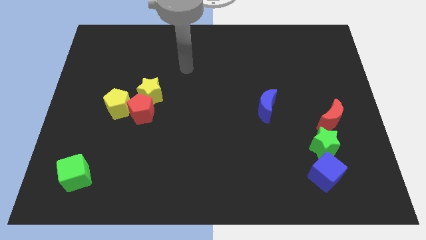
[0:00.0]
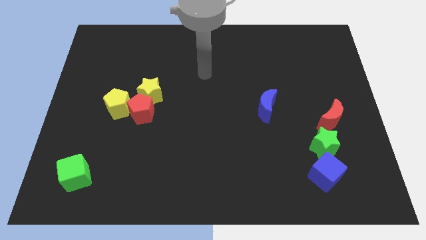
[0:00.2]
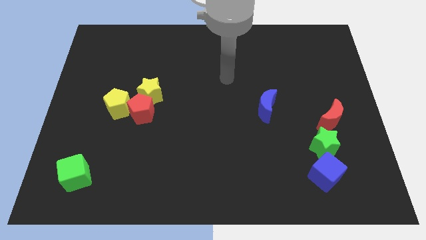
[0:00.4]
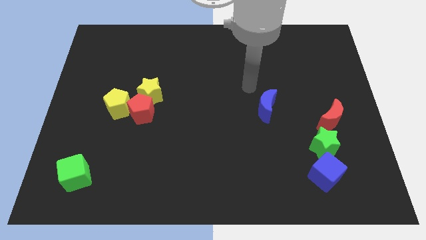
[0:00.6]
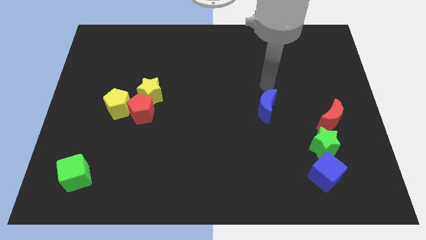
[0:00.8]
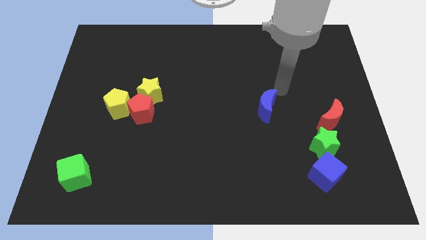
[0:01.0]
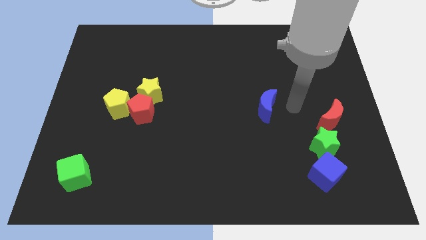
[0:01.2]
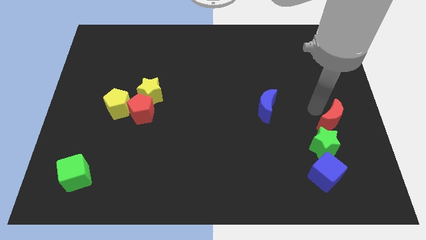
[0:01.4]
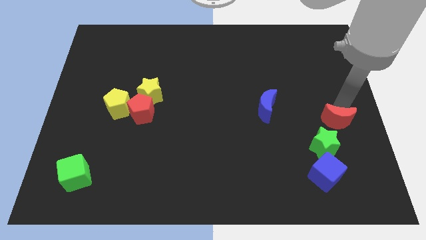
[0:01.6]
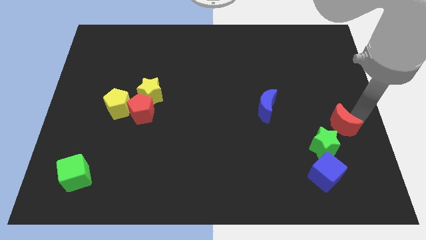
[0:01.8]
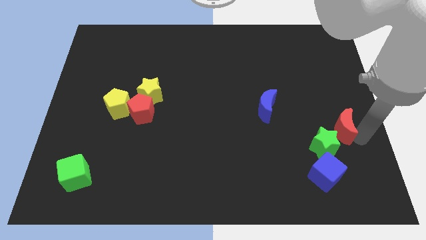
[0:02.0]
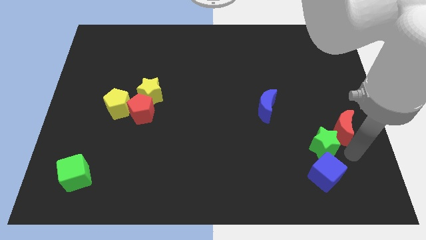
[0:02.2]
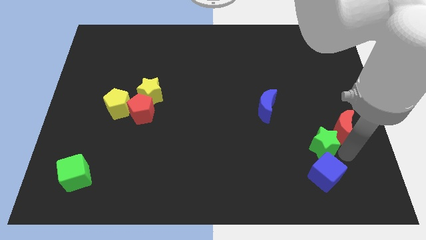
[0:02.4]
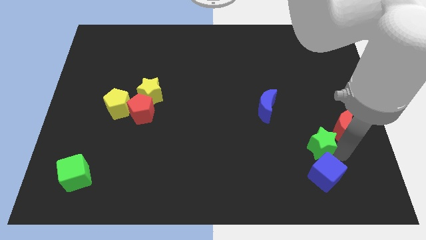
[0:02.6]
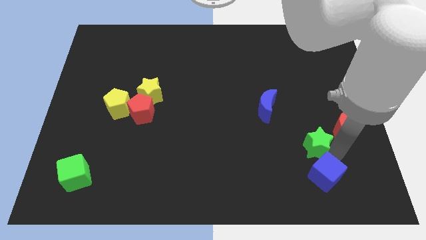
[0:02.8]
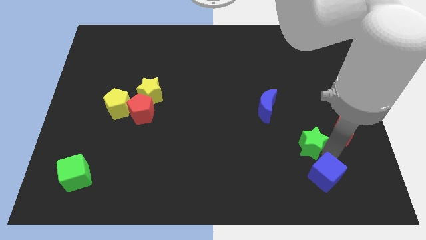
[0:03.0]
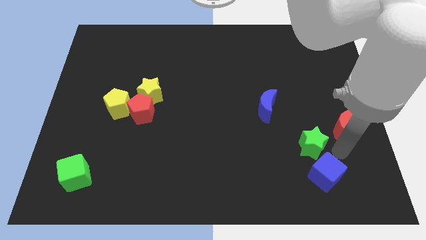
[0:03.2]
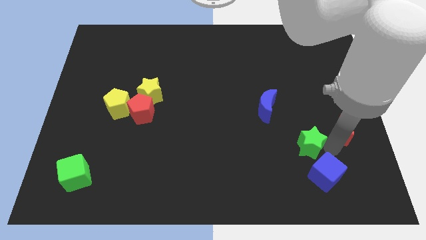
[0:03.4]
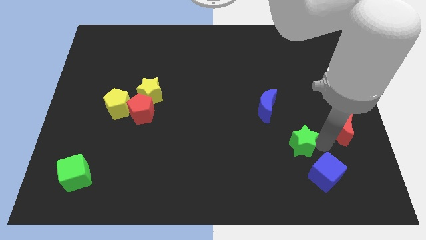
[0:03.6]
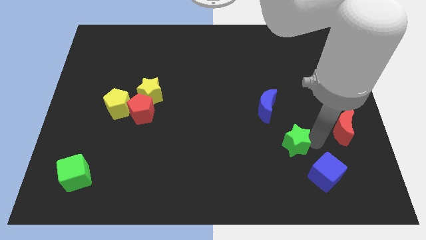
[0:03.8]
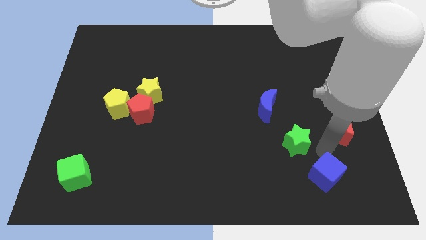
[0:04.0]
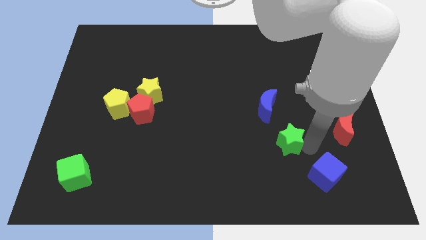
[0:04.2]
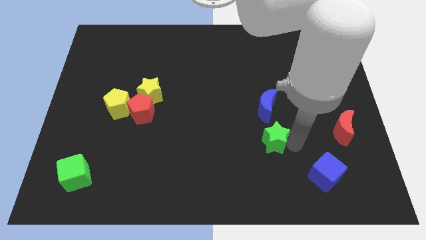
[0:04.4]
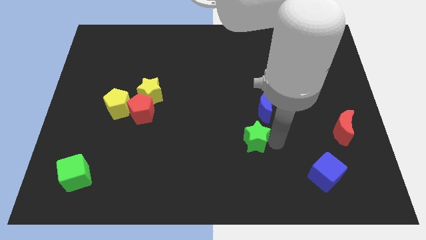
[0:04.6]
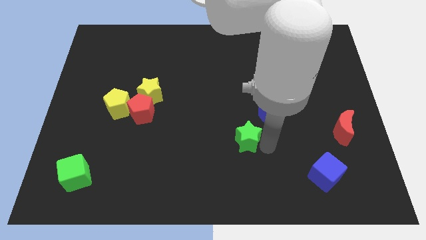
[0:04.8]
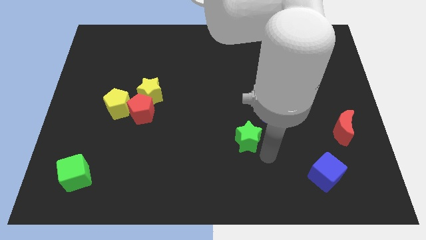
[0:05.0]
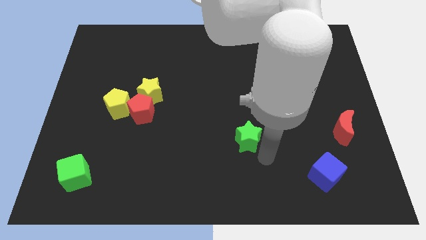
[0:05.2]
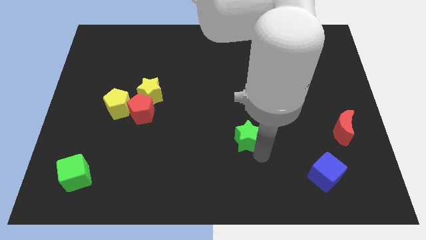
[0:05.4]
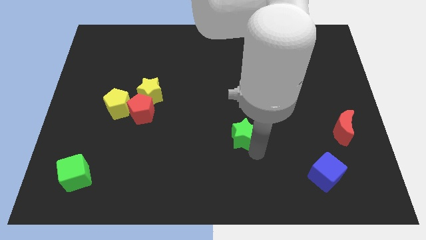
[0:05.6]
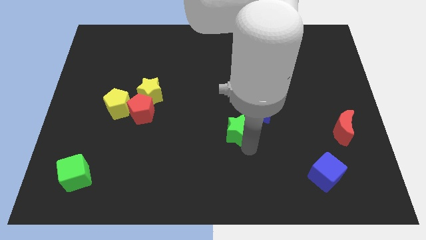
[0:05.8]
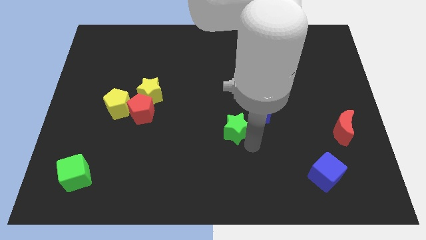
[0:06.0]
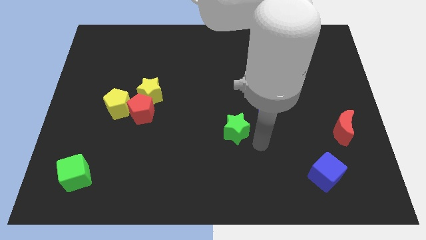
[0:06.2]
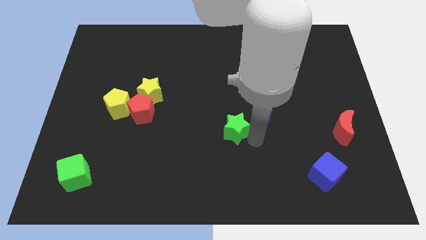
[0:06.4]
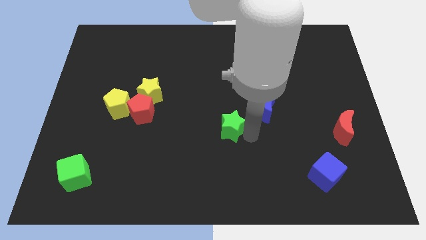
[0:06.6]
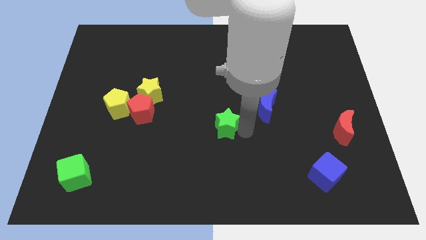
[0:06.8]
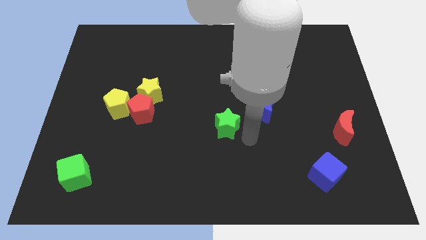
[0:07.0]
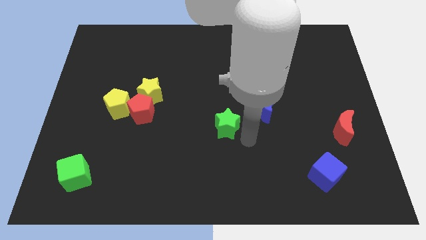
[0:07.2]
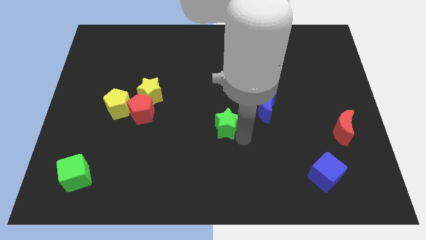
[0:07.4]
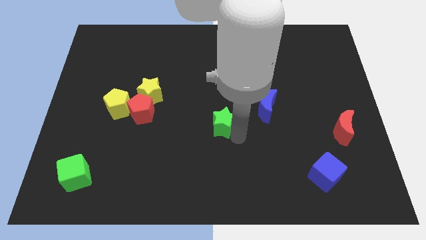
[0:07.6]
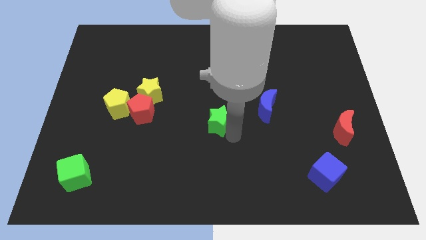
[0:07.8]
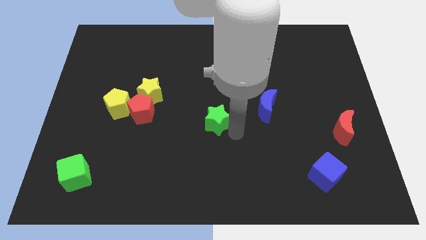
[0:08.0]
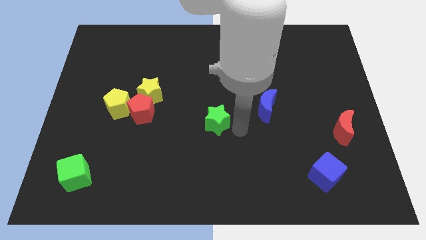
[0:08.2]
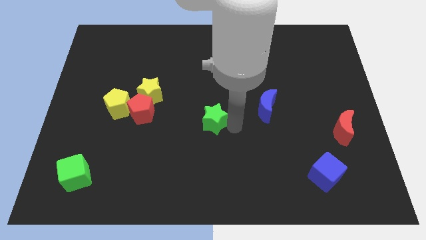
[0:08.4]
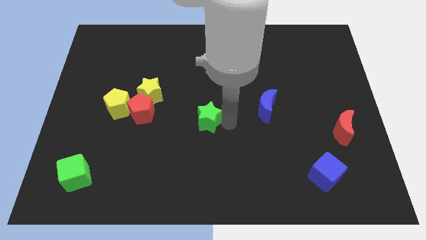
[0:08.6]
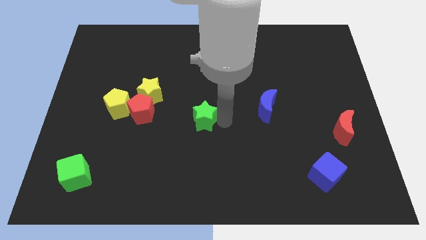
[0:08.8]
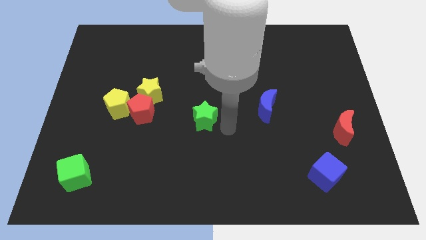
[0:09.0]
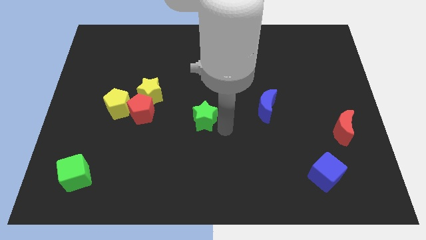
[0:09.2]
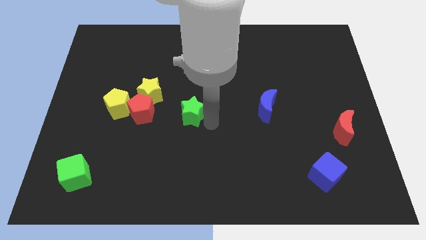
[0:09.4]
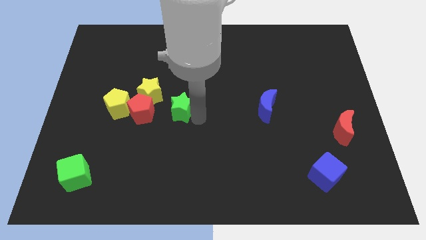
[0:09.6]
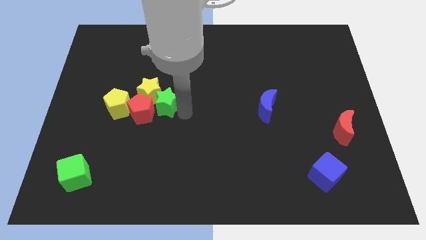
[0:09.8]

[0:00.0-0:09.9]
push the green star towards the yellow star

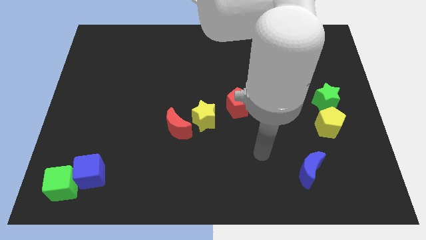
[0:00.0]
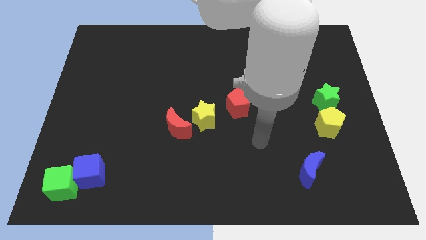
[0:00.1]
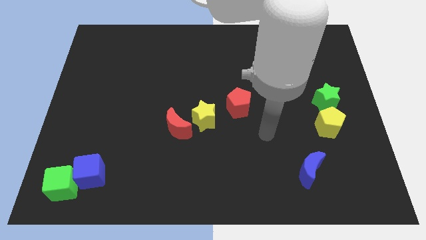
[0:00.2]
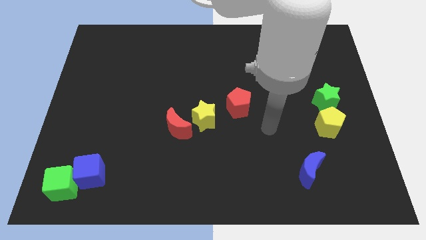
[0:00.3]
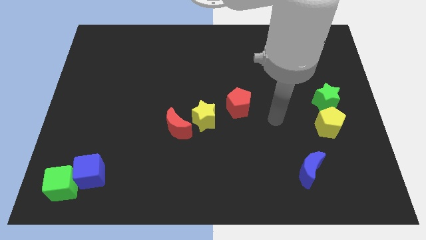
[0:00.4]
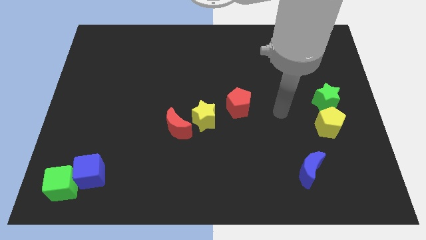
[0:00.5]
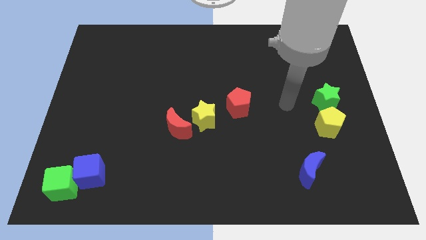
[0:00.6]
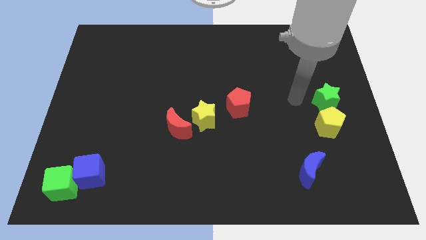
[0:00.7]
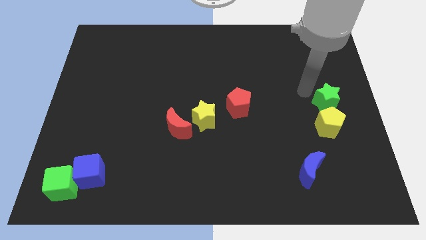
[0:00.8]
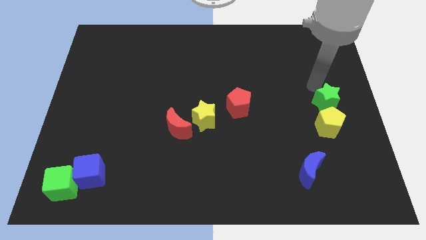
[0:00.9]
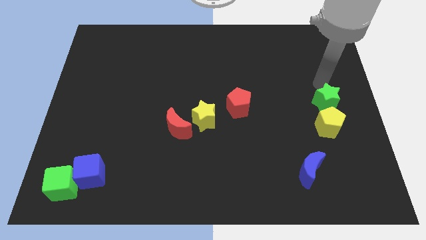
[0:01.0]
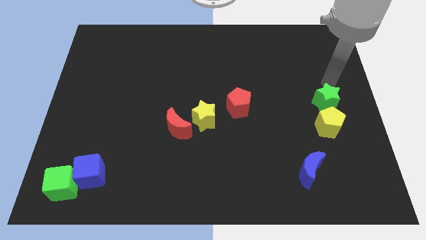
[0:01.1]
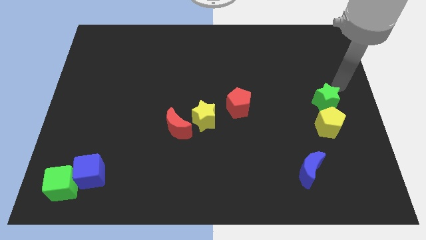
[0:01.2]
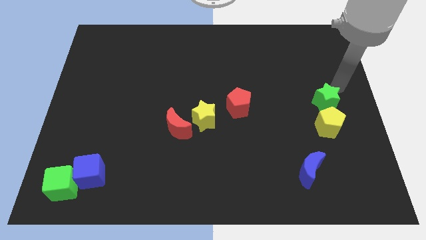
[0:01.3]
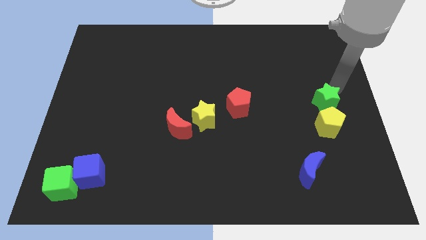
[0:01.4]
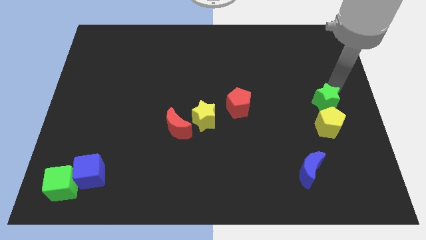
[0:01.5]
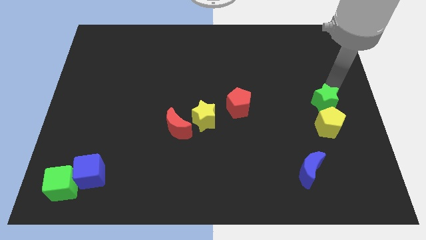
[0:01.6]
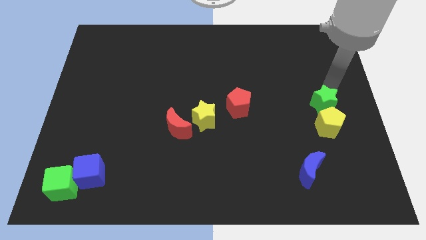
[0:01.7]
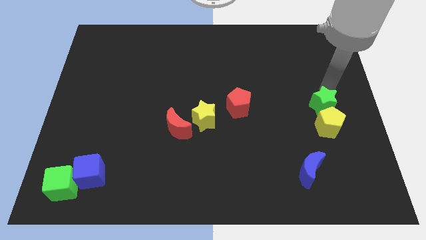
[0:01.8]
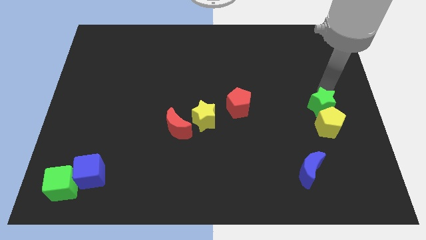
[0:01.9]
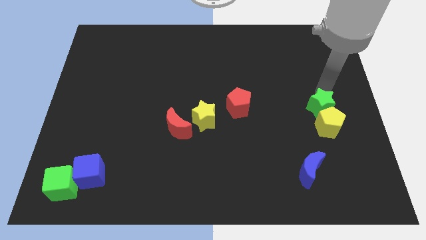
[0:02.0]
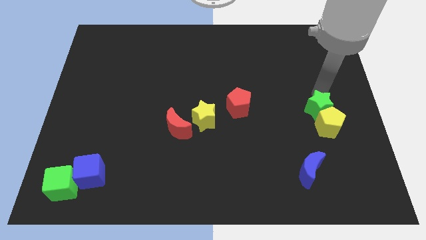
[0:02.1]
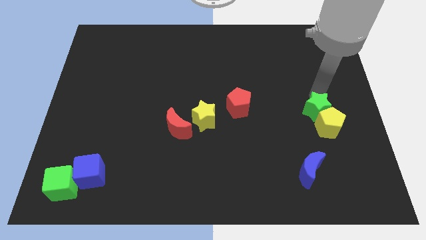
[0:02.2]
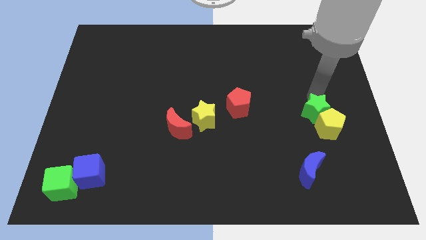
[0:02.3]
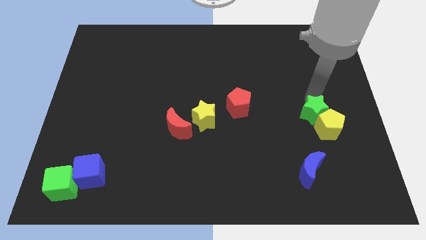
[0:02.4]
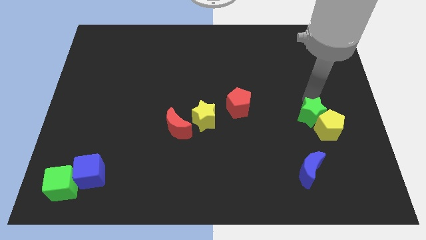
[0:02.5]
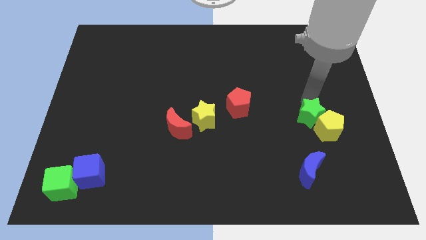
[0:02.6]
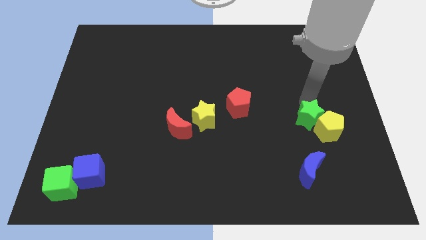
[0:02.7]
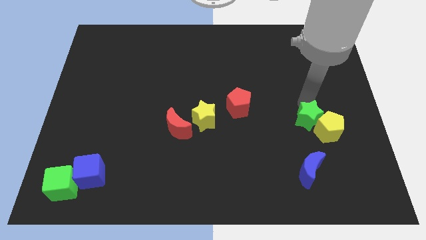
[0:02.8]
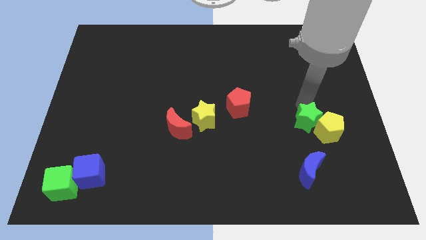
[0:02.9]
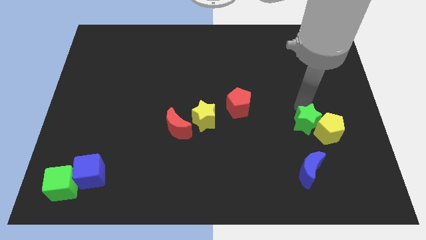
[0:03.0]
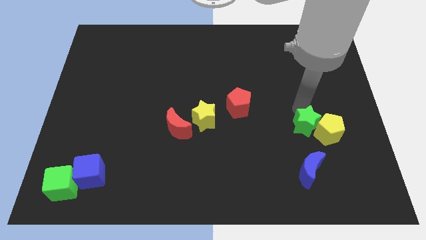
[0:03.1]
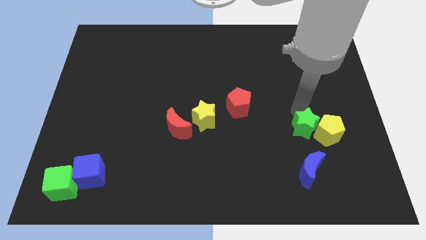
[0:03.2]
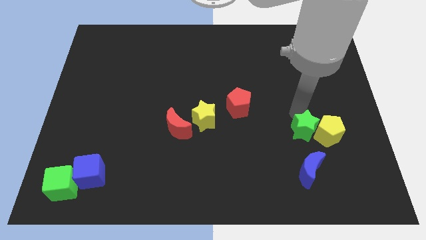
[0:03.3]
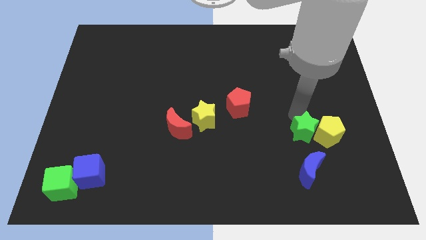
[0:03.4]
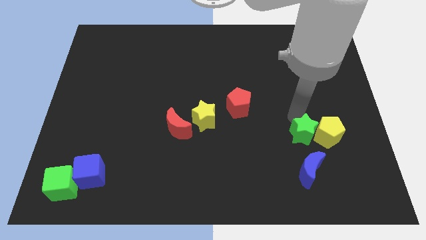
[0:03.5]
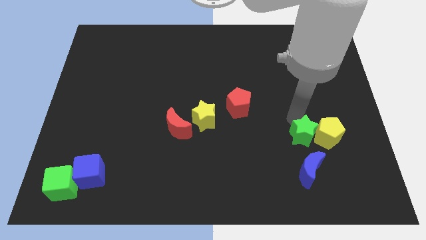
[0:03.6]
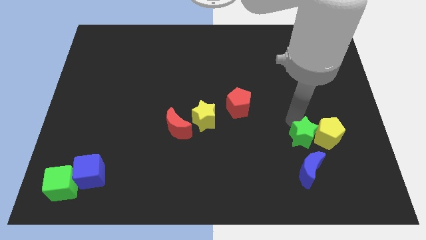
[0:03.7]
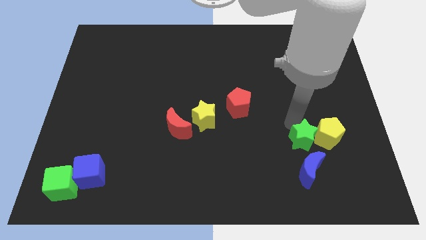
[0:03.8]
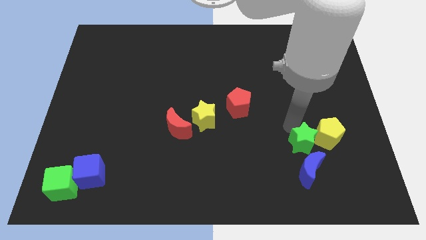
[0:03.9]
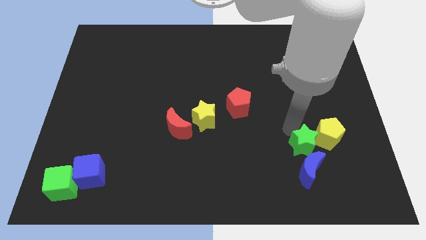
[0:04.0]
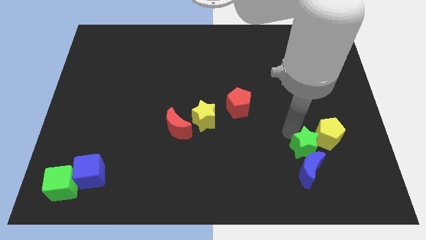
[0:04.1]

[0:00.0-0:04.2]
move the green star to the blue moon
